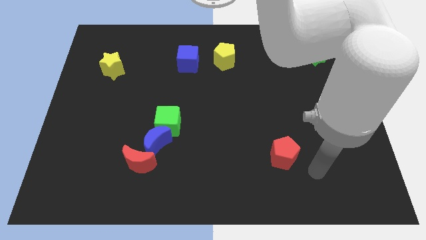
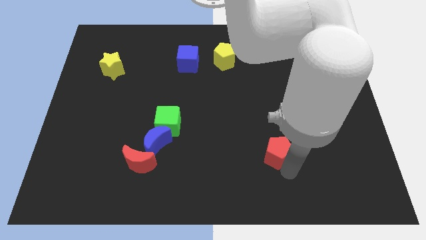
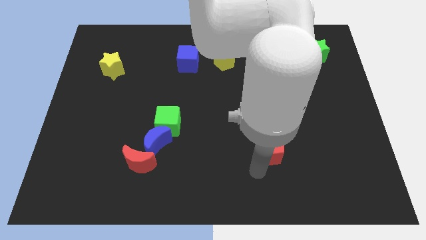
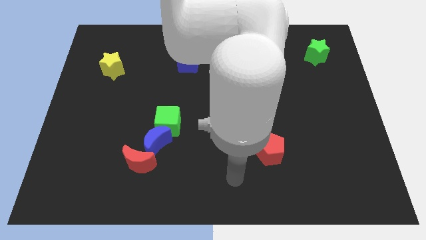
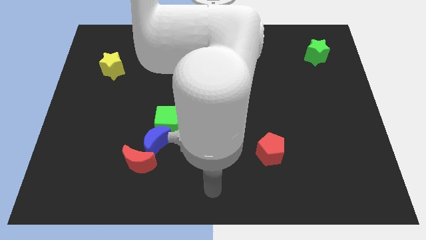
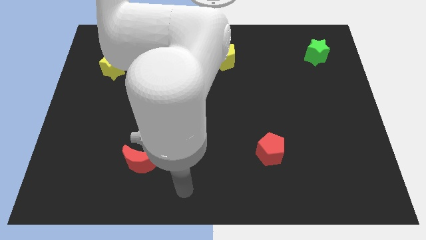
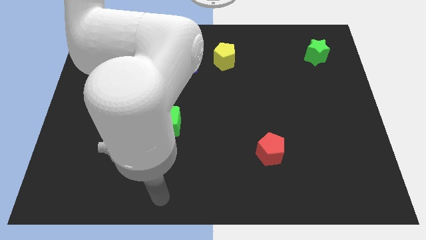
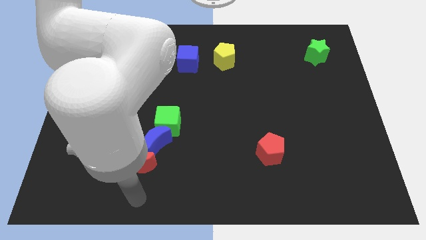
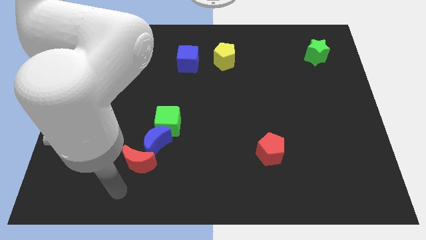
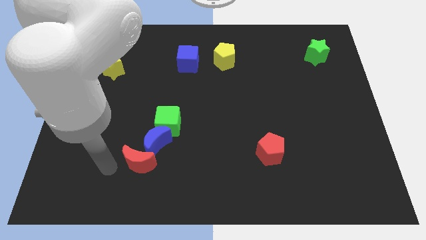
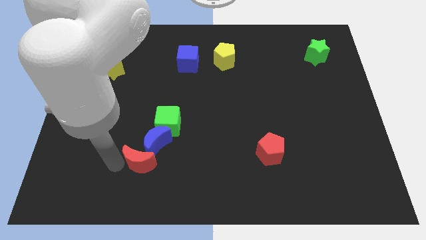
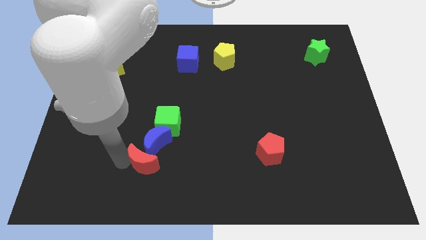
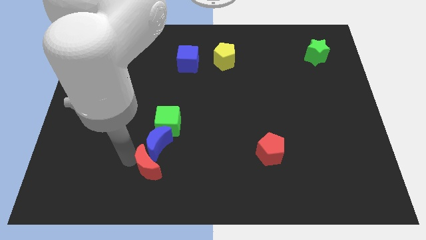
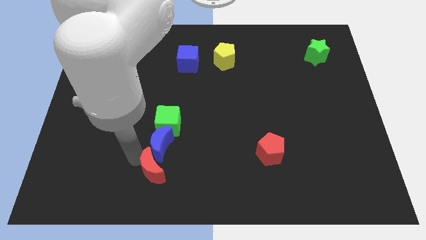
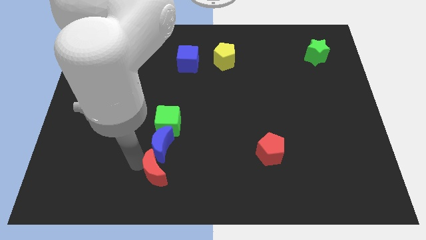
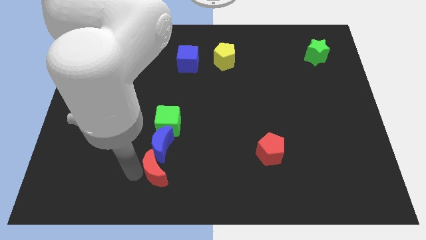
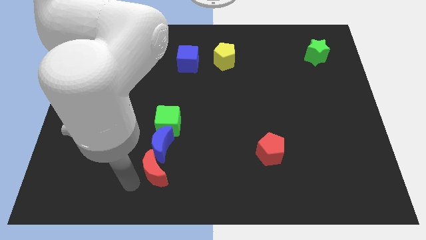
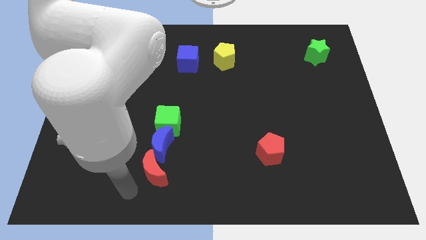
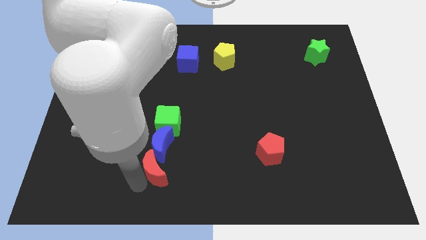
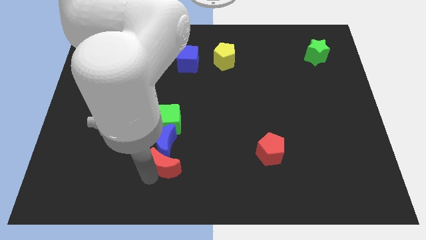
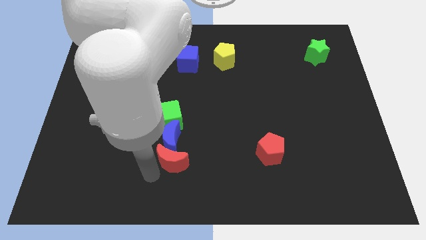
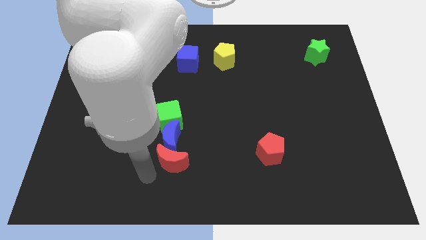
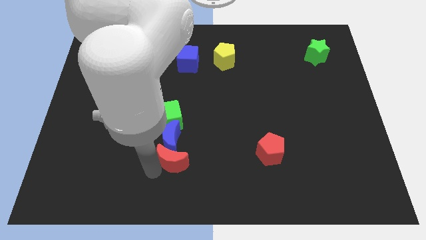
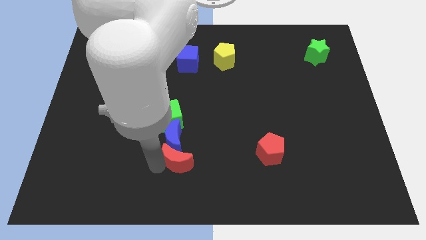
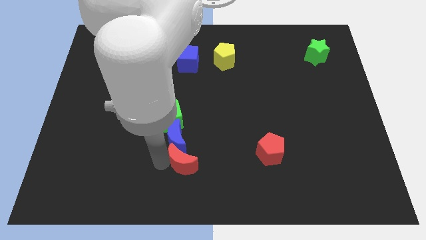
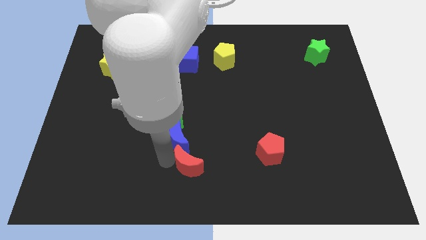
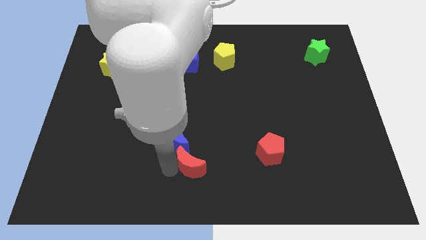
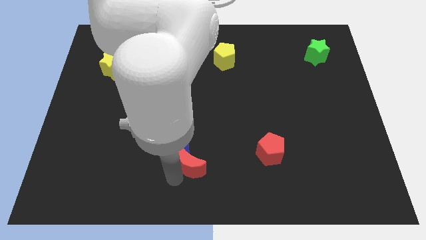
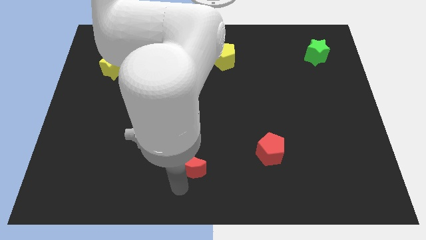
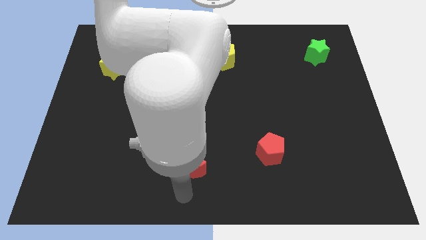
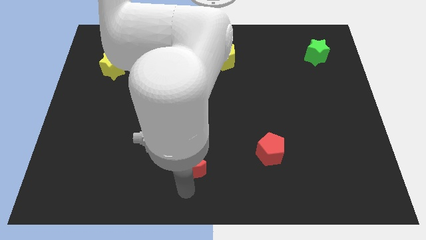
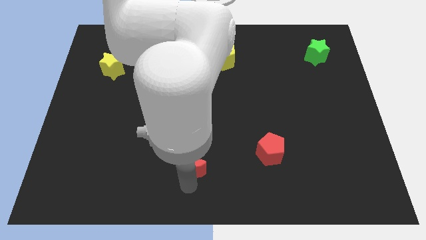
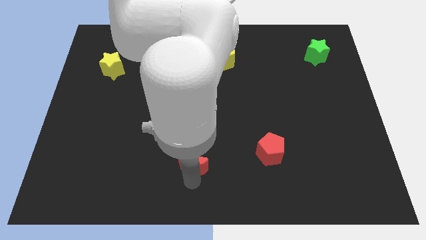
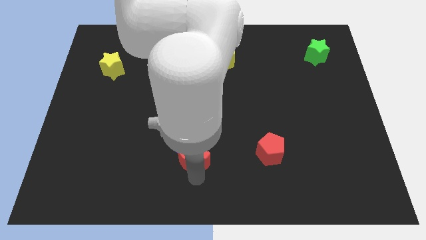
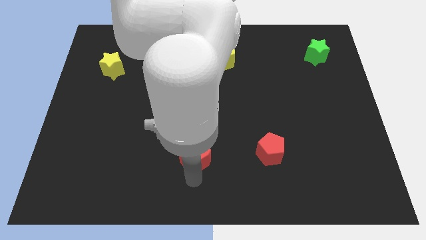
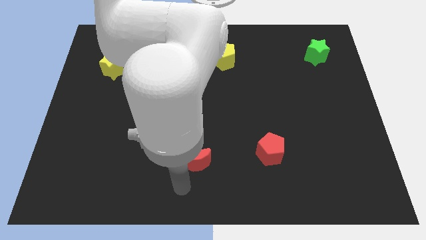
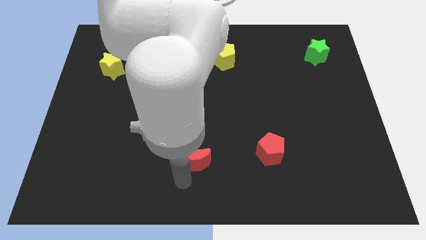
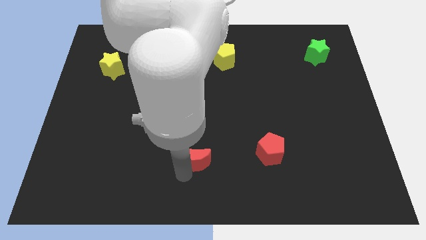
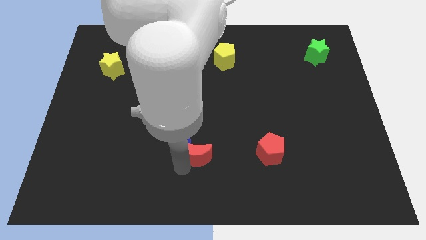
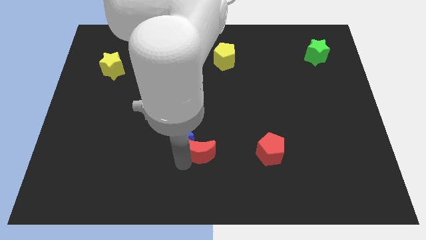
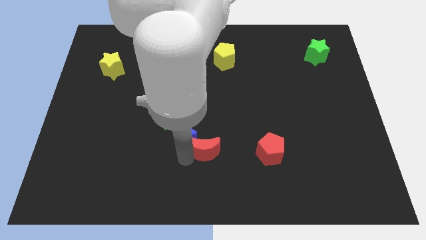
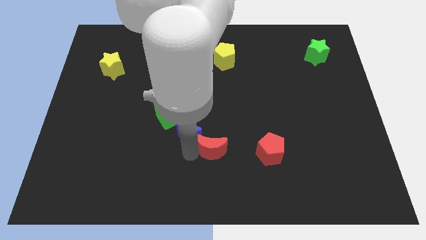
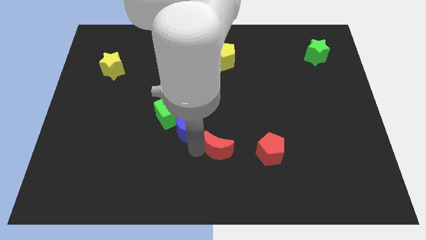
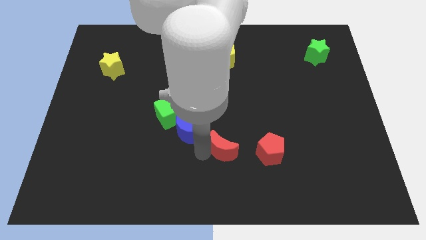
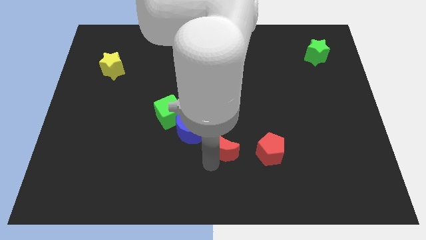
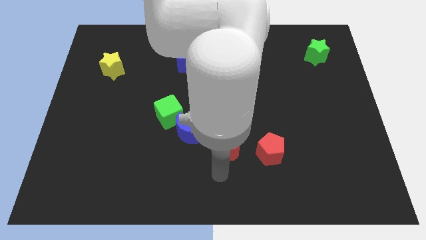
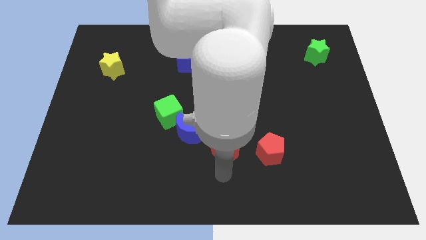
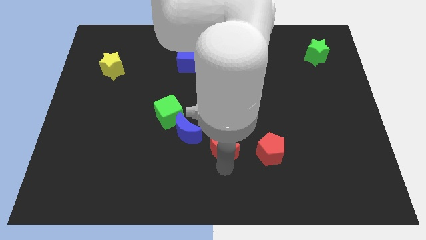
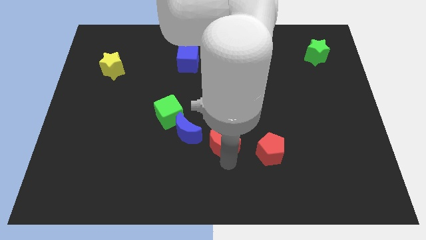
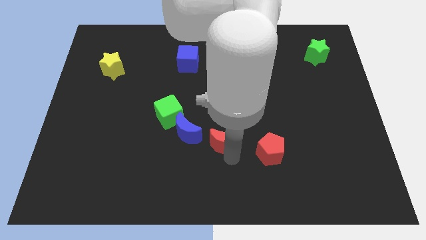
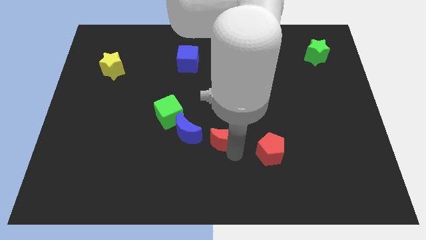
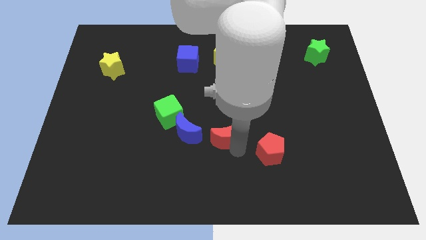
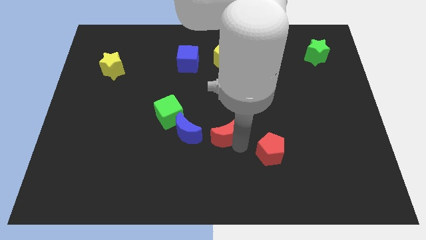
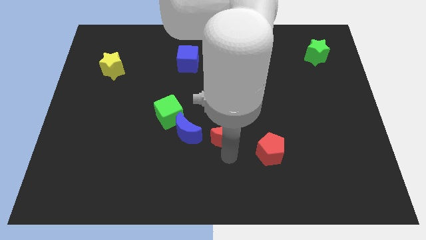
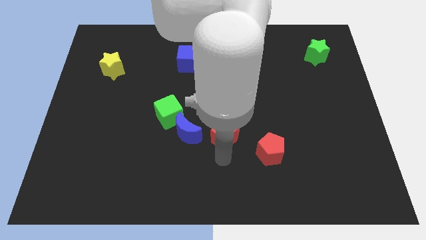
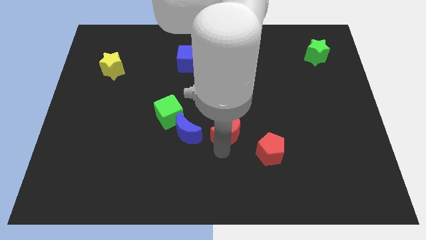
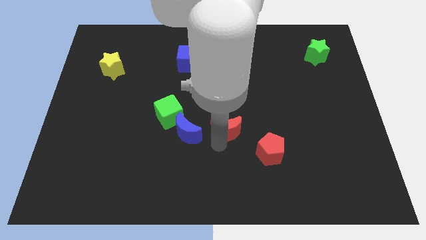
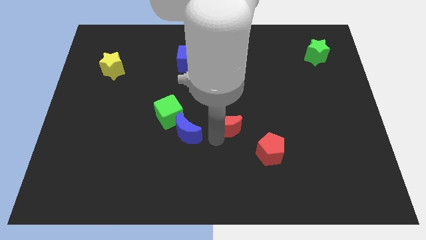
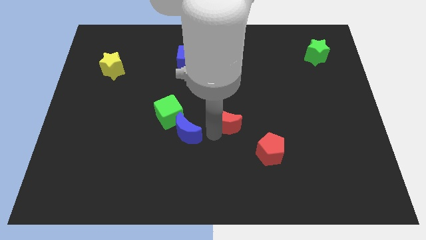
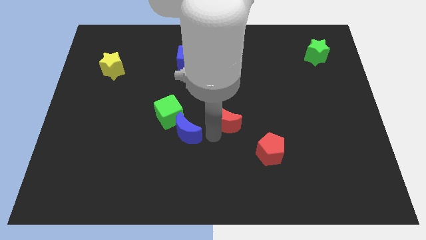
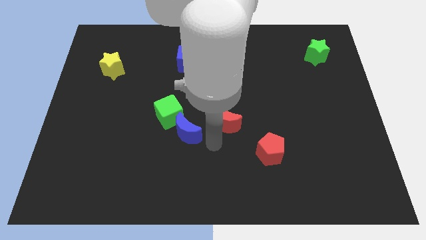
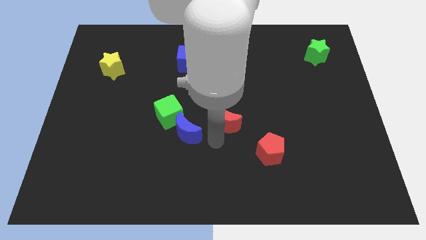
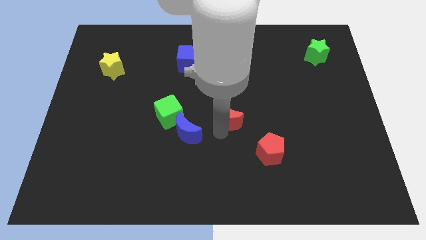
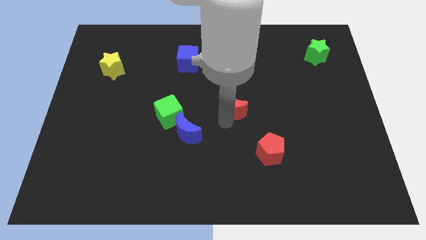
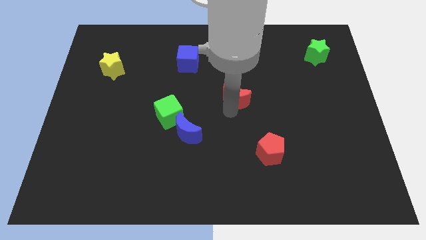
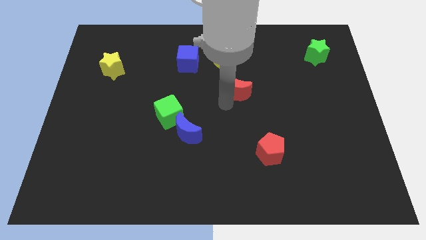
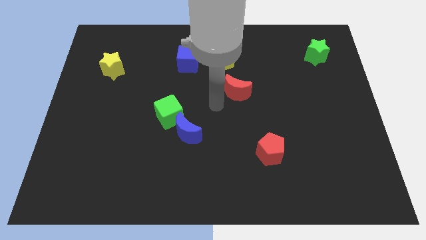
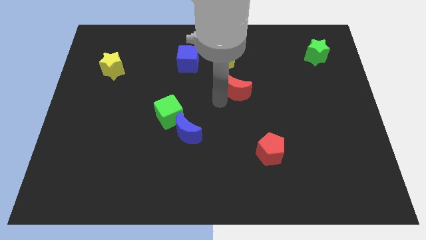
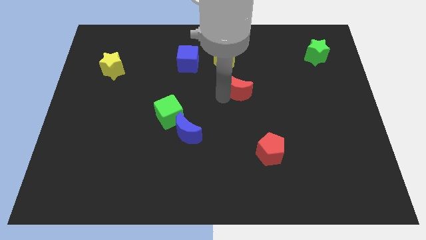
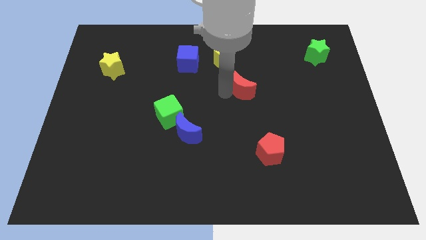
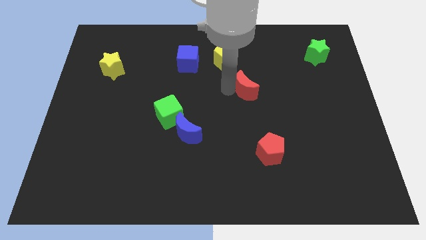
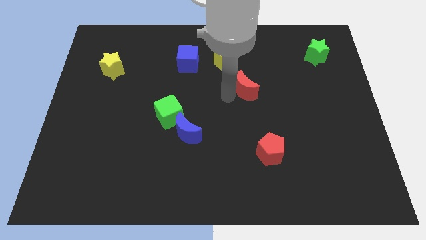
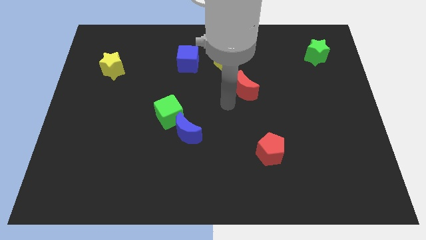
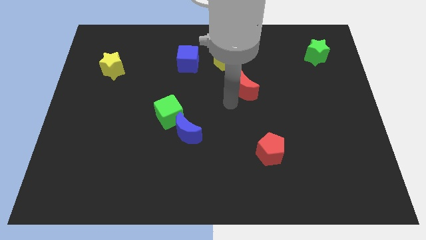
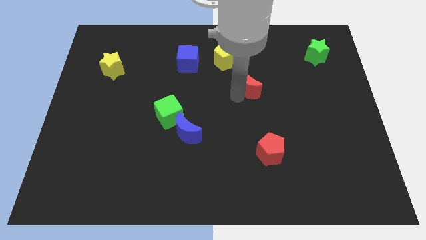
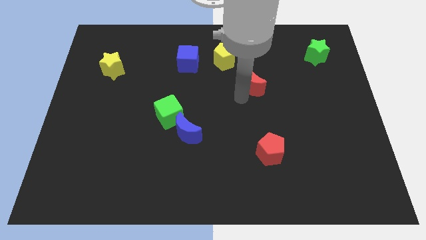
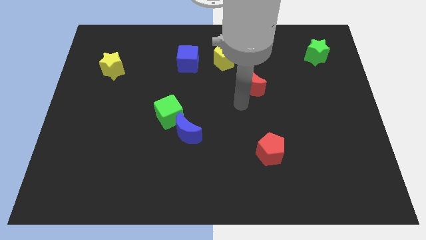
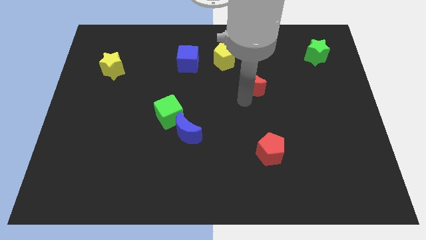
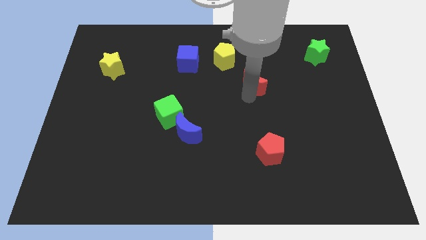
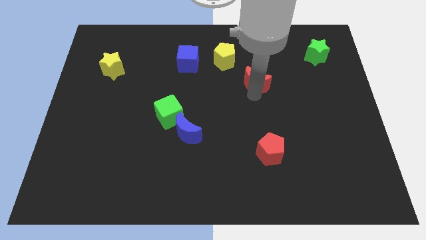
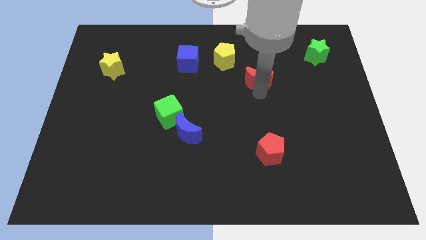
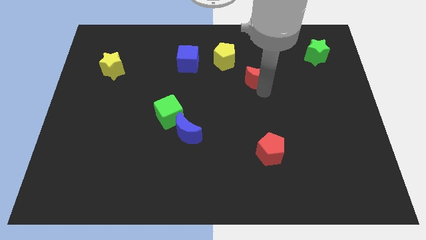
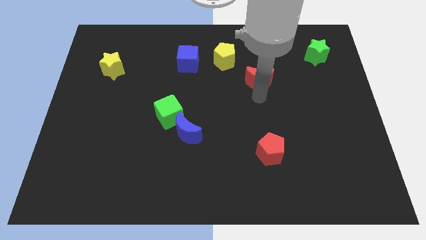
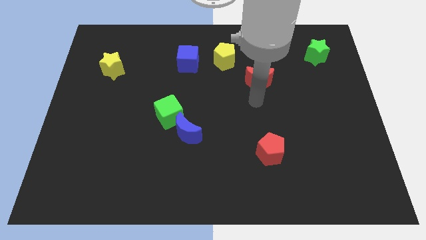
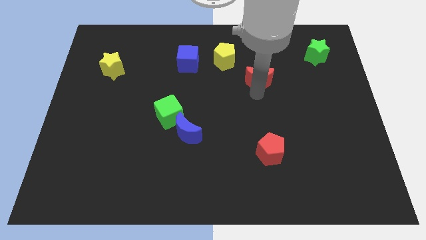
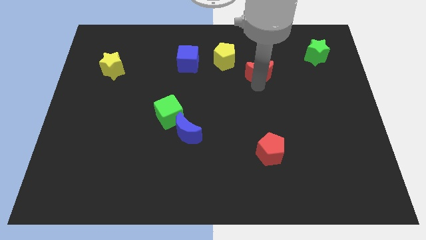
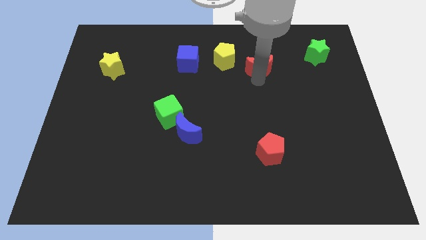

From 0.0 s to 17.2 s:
move the red moon just right of the yellow pentagon
